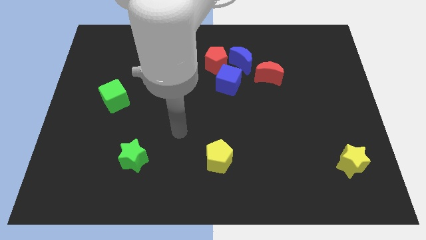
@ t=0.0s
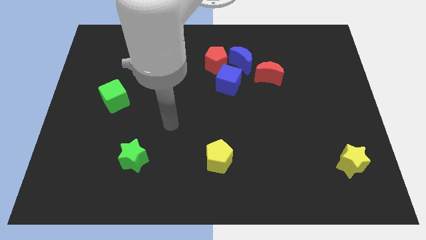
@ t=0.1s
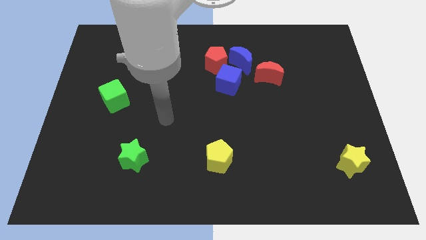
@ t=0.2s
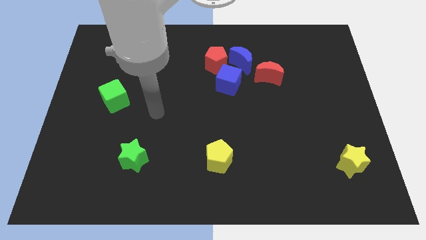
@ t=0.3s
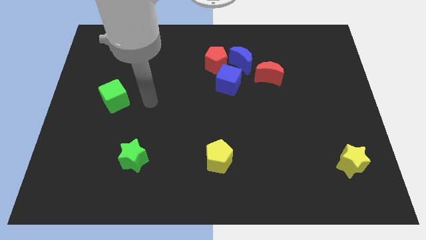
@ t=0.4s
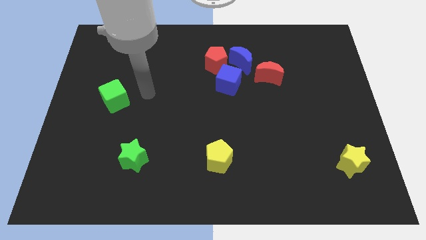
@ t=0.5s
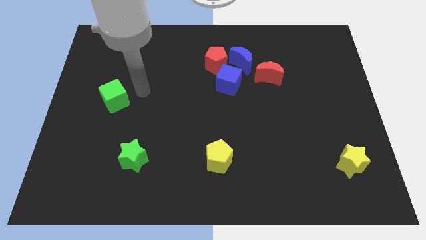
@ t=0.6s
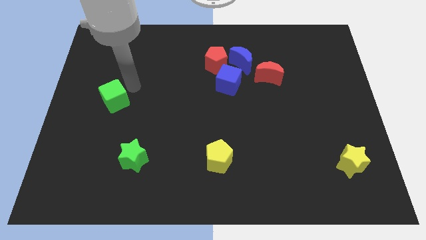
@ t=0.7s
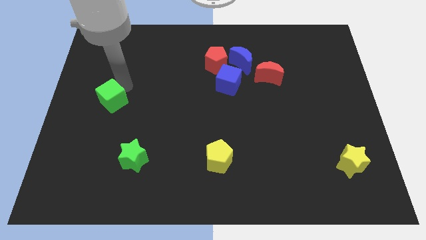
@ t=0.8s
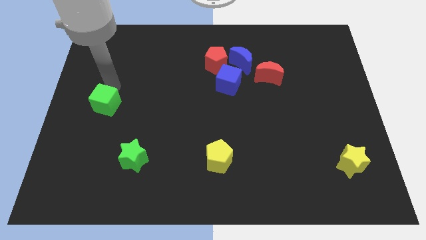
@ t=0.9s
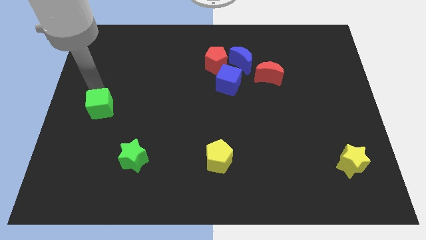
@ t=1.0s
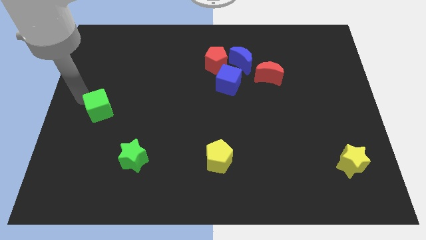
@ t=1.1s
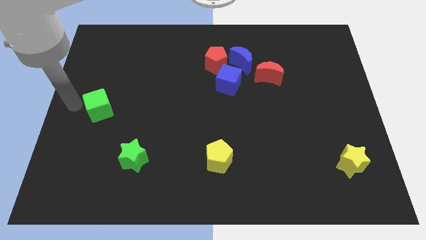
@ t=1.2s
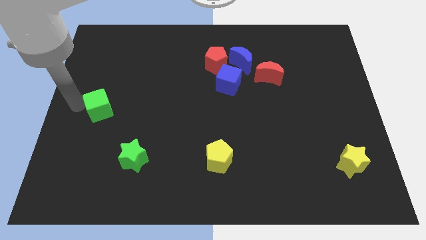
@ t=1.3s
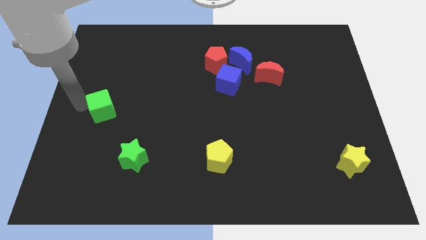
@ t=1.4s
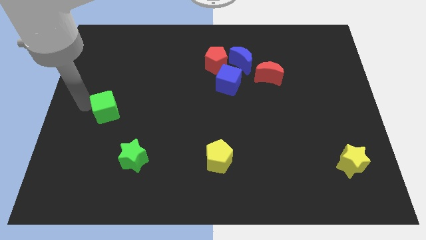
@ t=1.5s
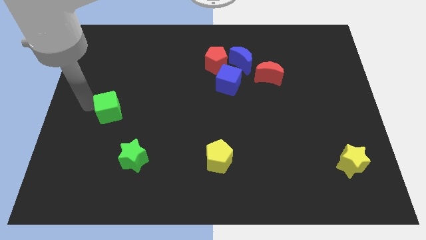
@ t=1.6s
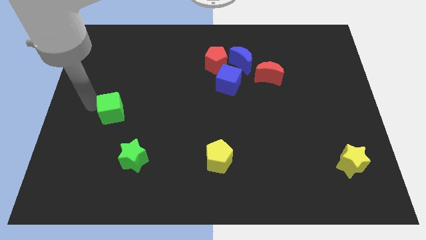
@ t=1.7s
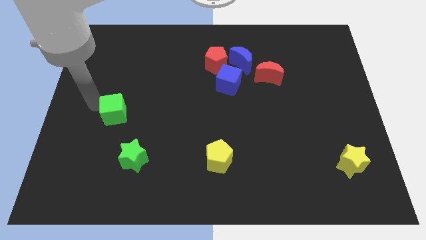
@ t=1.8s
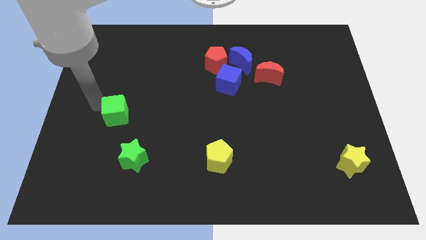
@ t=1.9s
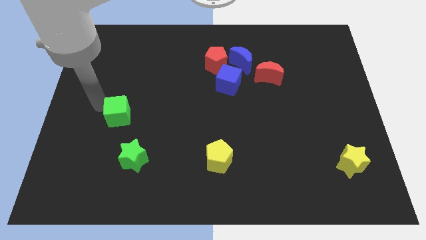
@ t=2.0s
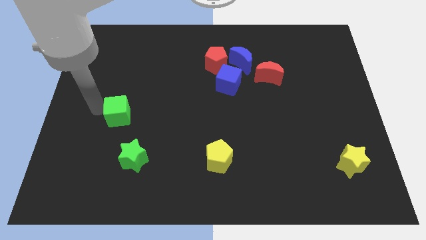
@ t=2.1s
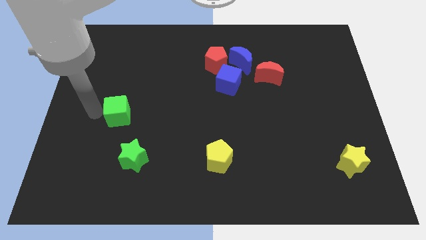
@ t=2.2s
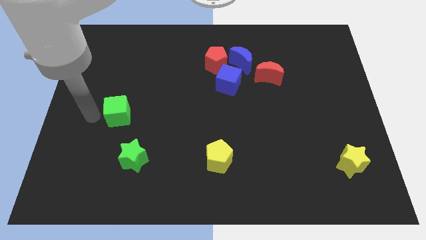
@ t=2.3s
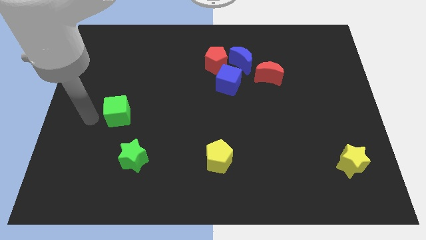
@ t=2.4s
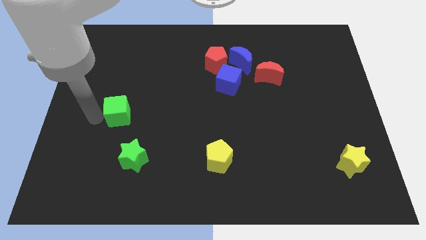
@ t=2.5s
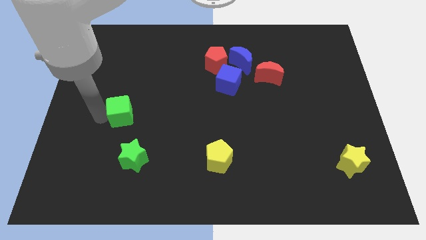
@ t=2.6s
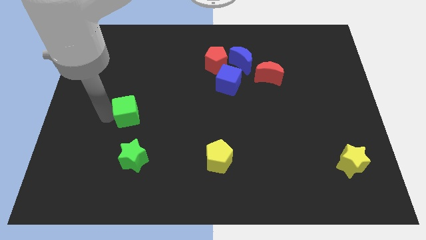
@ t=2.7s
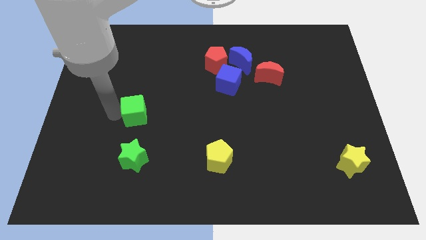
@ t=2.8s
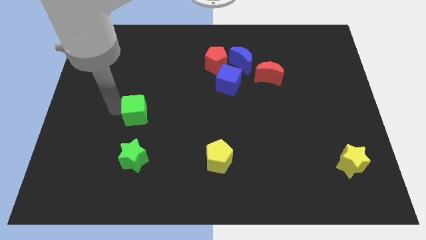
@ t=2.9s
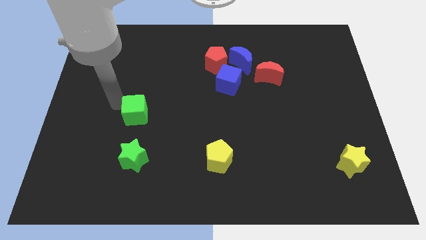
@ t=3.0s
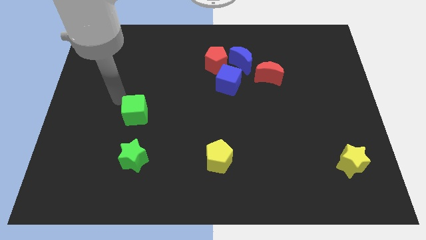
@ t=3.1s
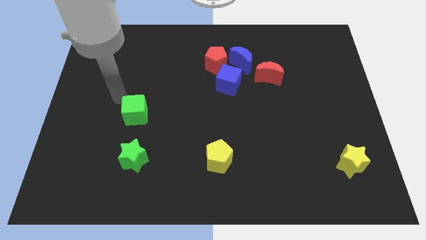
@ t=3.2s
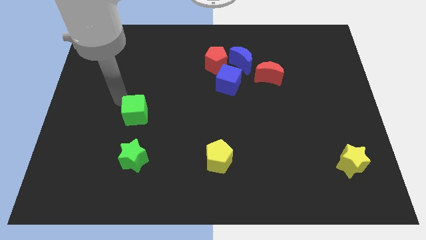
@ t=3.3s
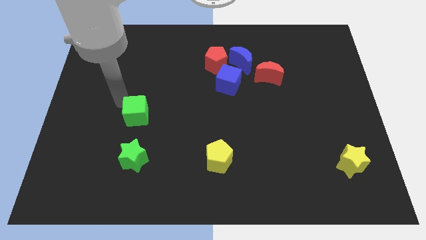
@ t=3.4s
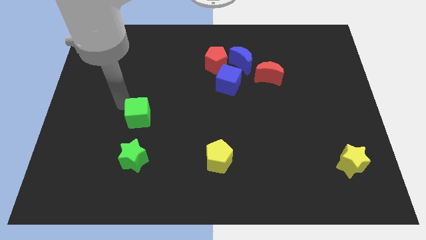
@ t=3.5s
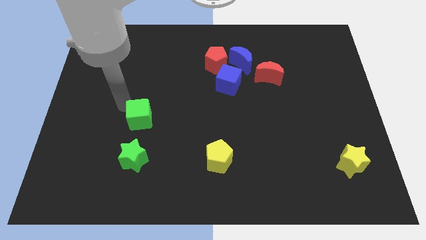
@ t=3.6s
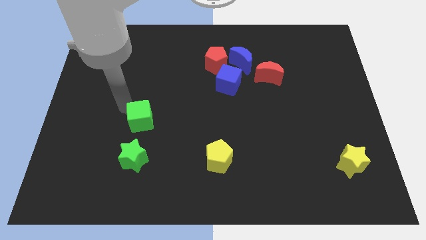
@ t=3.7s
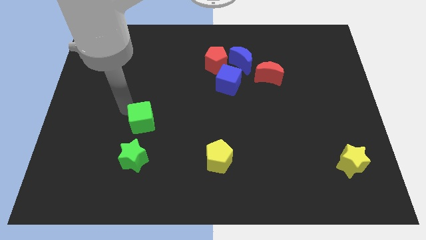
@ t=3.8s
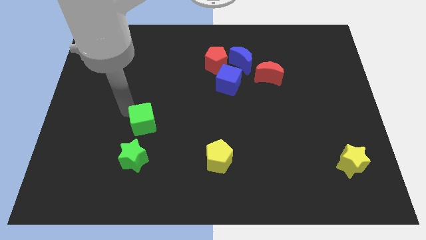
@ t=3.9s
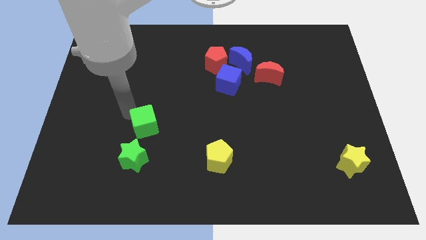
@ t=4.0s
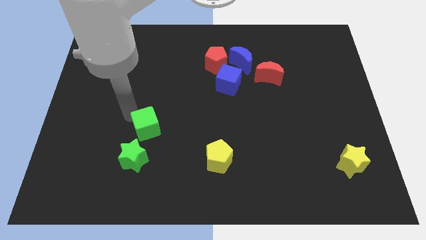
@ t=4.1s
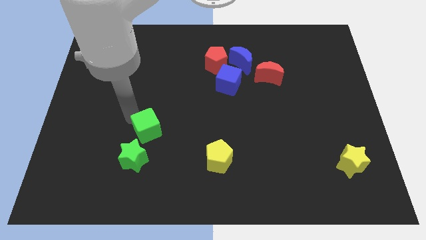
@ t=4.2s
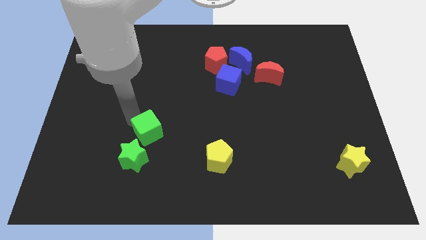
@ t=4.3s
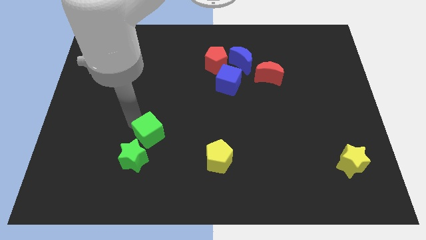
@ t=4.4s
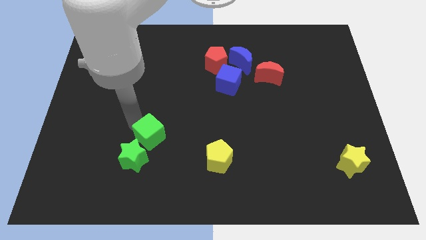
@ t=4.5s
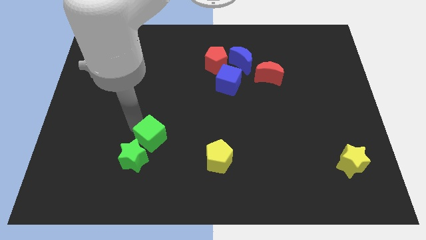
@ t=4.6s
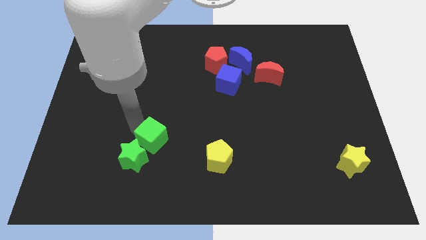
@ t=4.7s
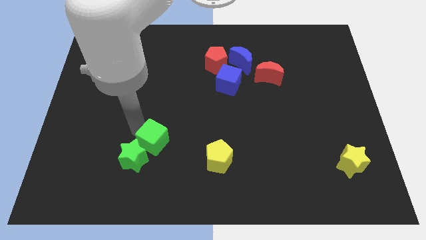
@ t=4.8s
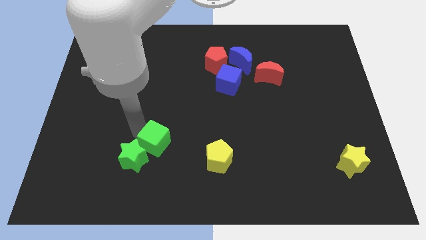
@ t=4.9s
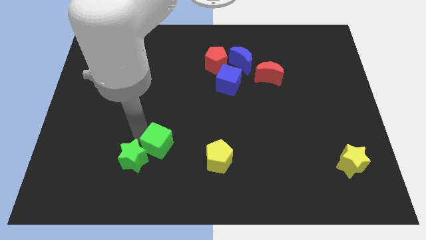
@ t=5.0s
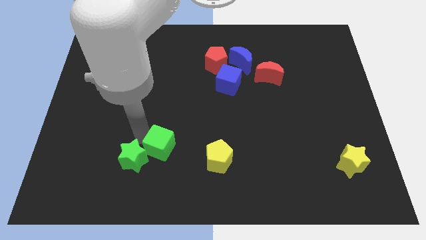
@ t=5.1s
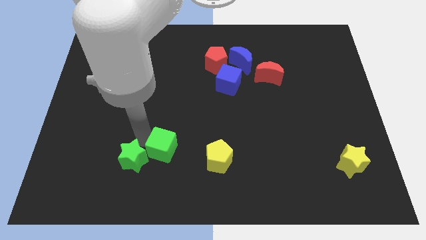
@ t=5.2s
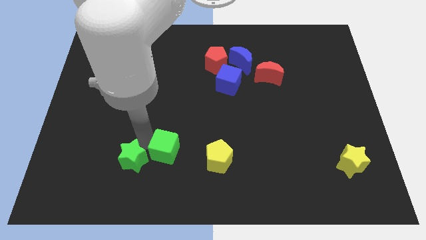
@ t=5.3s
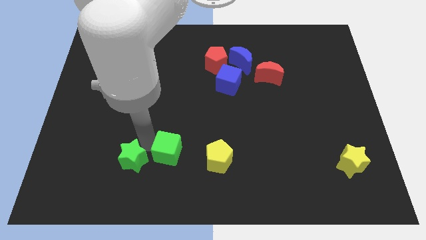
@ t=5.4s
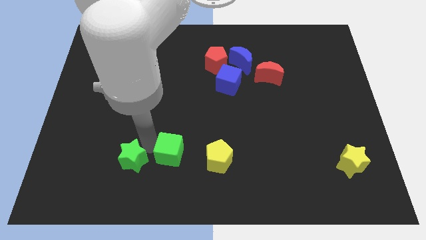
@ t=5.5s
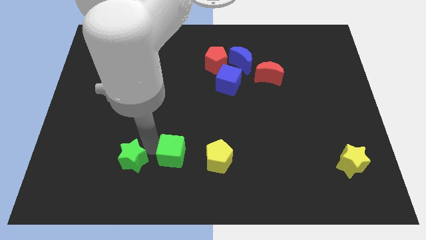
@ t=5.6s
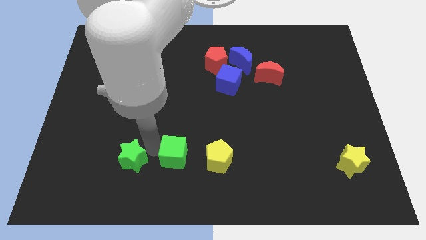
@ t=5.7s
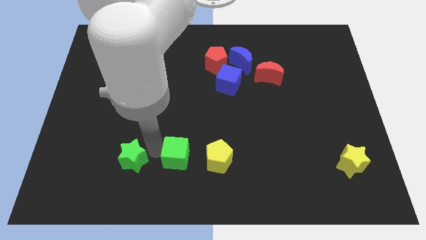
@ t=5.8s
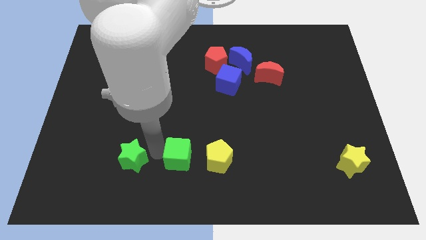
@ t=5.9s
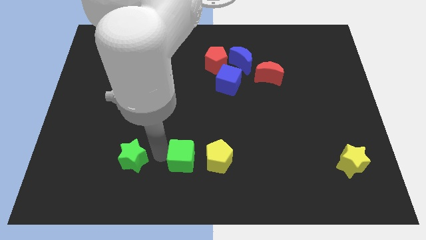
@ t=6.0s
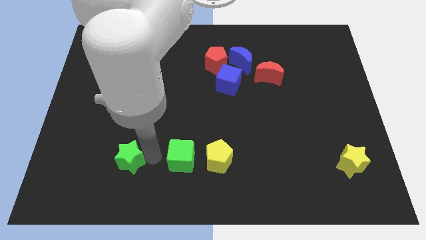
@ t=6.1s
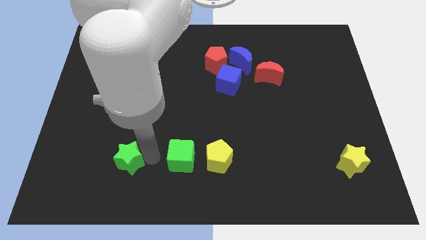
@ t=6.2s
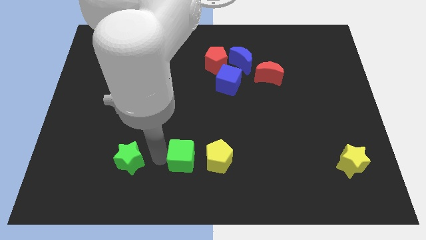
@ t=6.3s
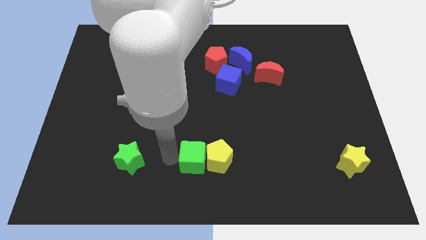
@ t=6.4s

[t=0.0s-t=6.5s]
slide the green cube close to the yellow pentagon

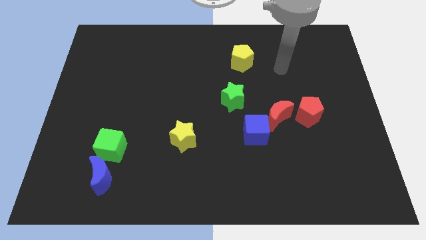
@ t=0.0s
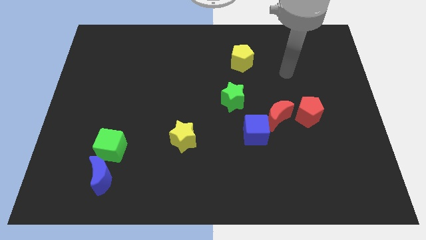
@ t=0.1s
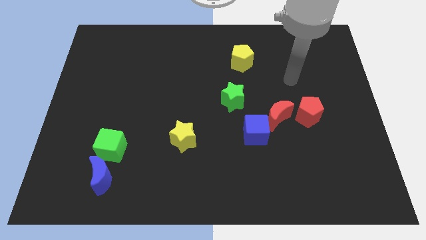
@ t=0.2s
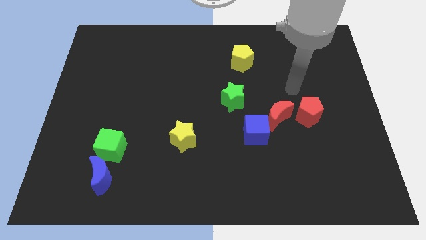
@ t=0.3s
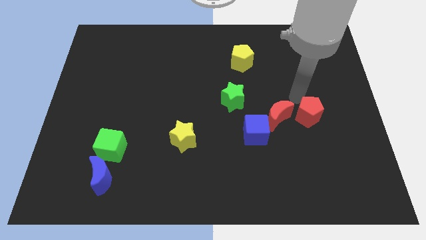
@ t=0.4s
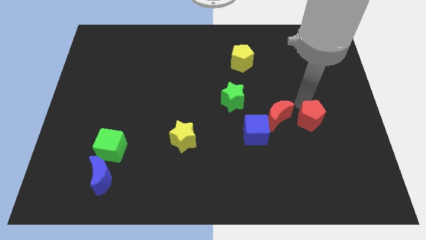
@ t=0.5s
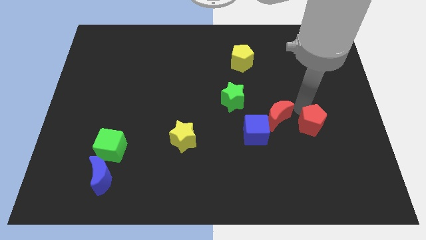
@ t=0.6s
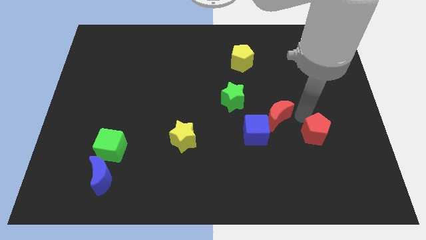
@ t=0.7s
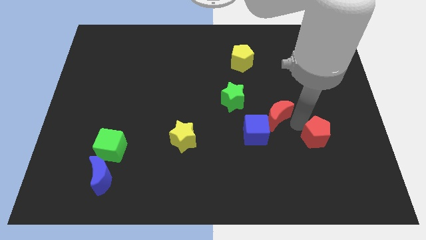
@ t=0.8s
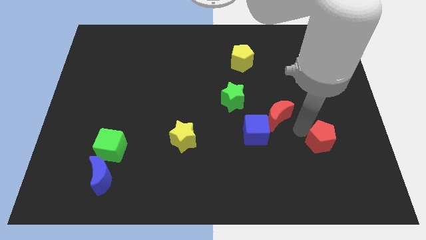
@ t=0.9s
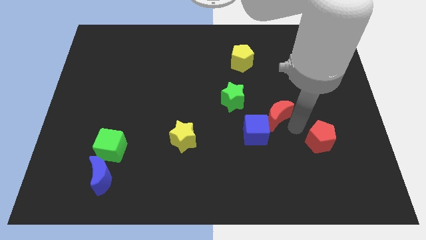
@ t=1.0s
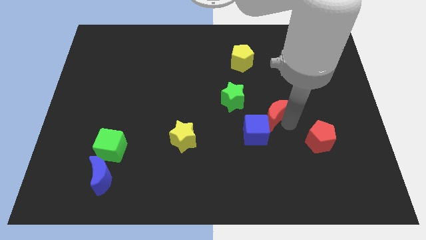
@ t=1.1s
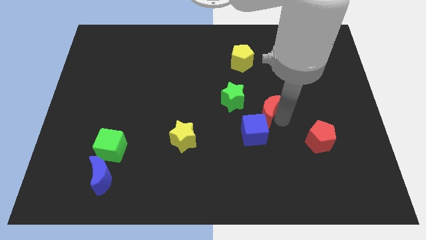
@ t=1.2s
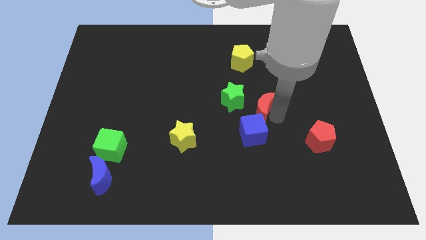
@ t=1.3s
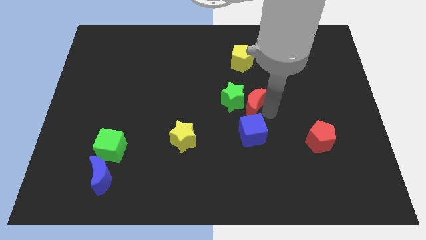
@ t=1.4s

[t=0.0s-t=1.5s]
slide the red moon close to the green star
